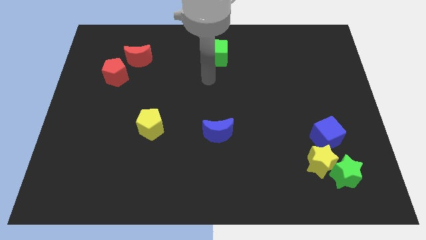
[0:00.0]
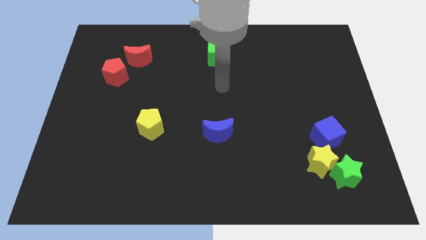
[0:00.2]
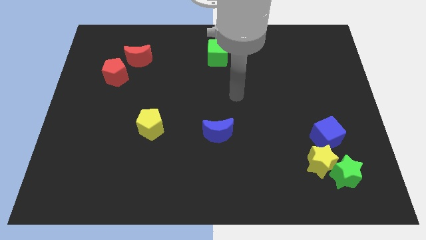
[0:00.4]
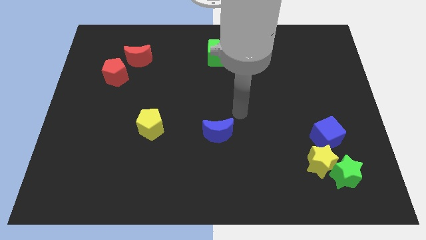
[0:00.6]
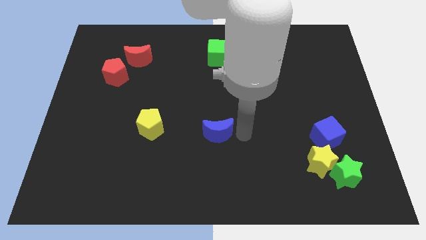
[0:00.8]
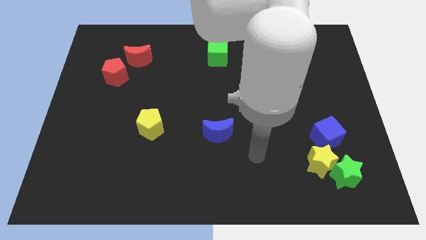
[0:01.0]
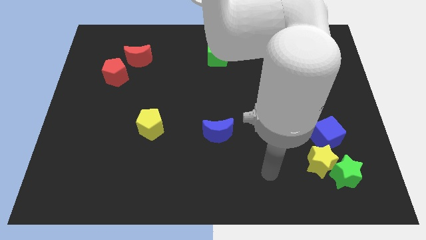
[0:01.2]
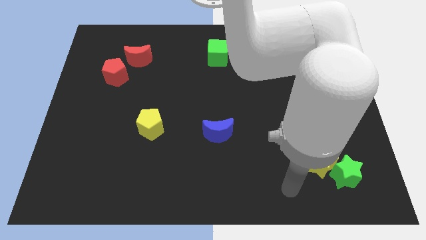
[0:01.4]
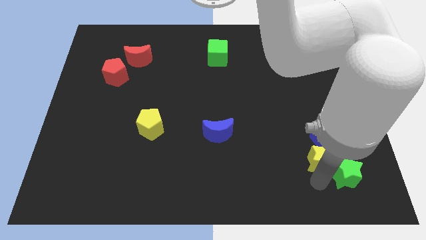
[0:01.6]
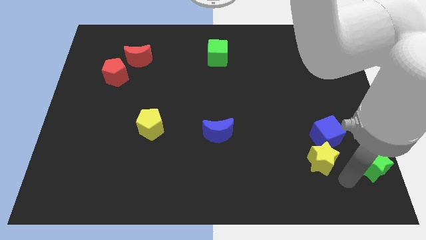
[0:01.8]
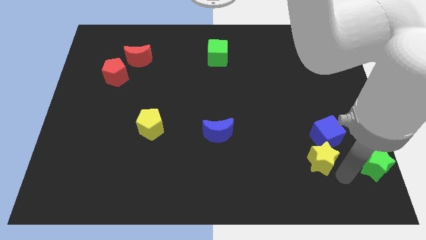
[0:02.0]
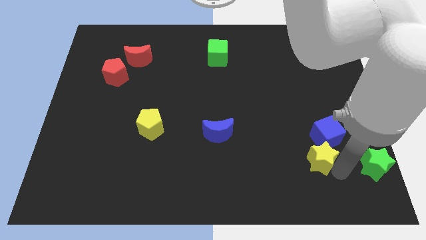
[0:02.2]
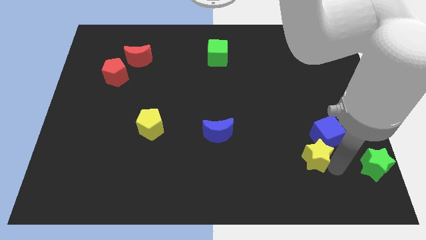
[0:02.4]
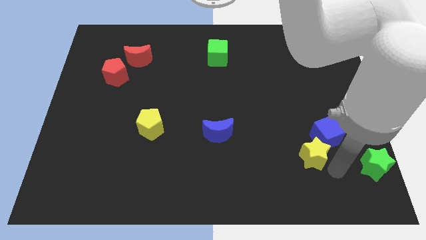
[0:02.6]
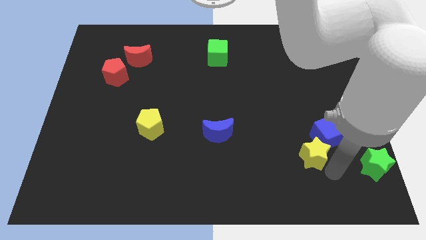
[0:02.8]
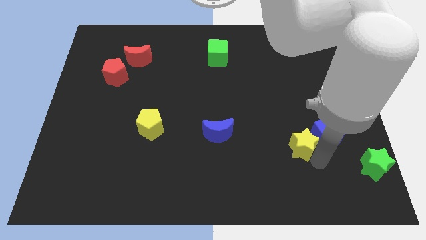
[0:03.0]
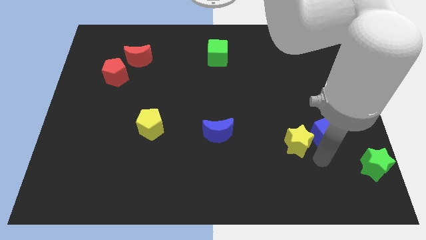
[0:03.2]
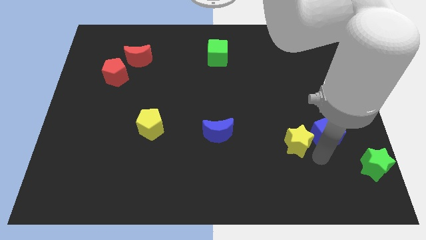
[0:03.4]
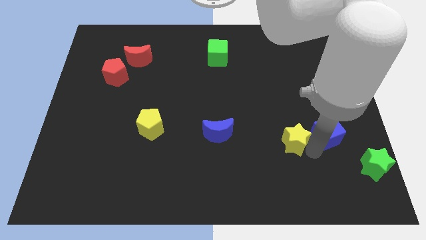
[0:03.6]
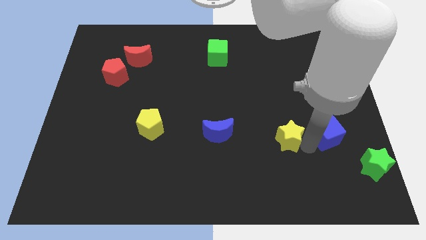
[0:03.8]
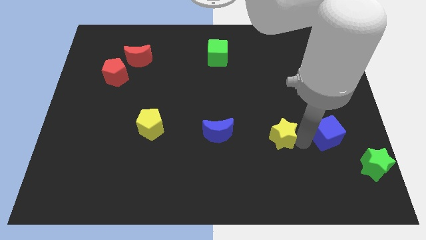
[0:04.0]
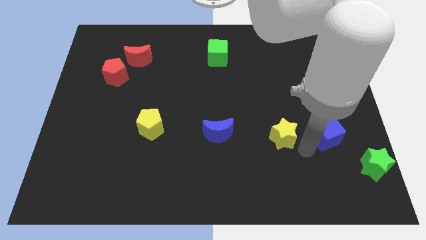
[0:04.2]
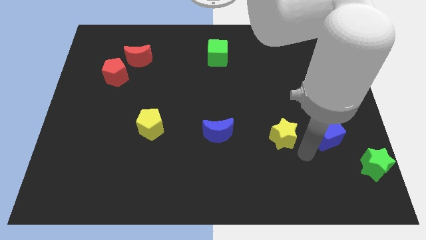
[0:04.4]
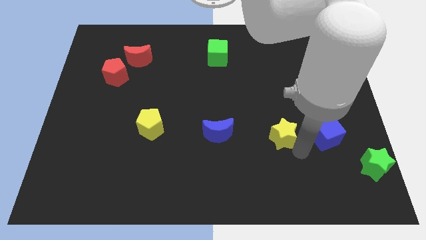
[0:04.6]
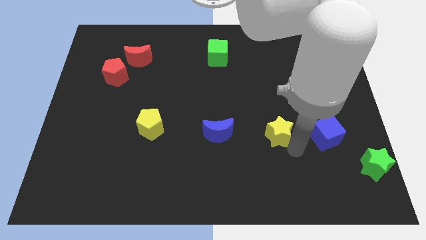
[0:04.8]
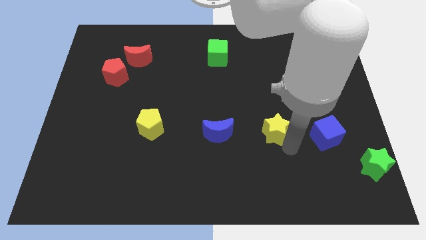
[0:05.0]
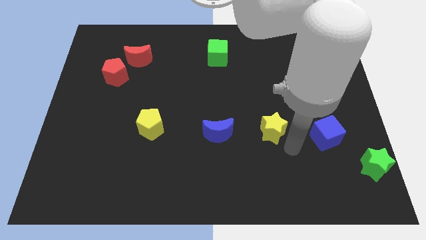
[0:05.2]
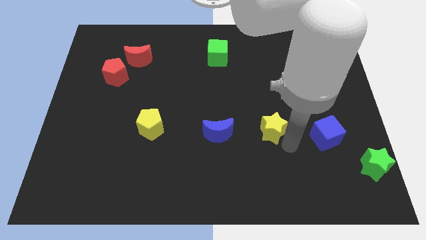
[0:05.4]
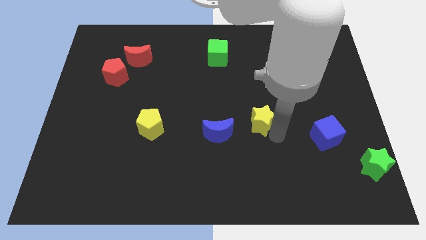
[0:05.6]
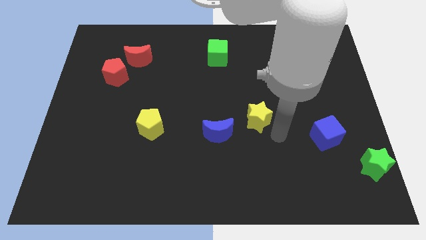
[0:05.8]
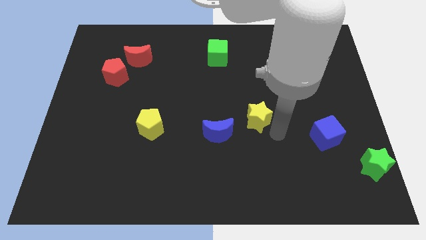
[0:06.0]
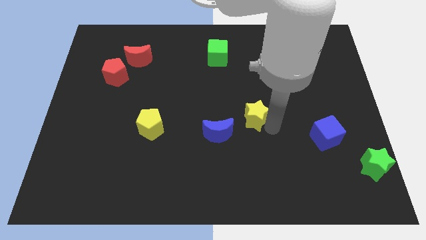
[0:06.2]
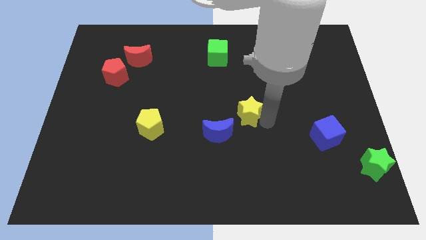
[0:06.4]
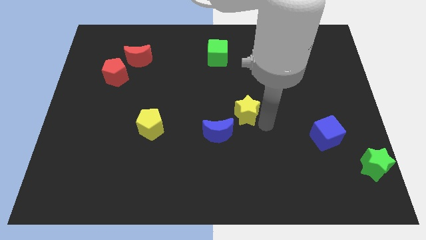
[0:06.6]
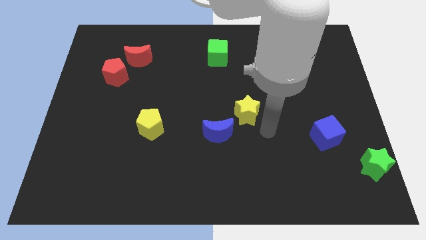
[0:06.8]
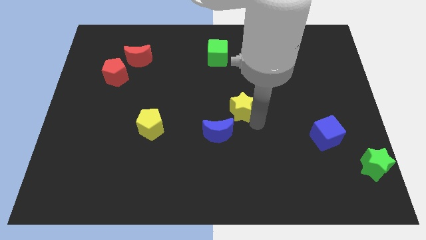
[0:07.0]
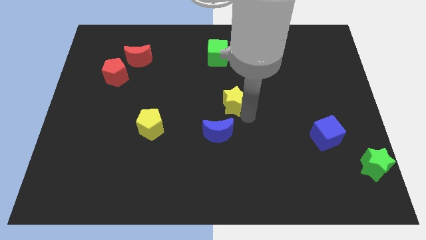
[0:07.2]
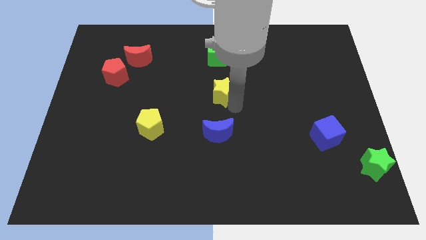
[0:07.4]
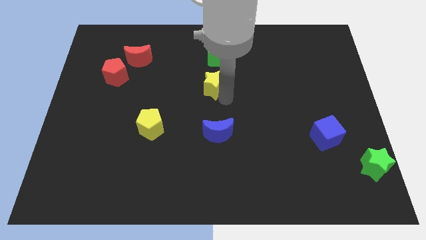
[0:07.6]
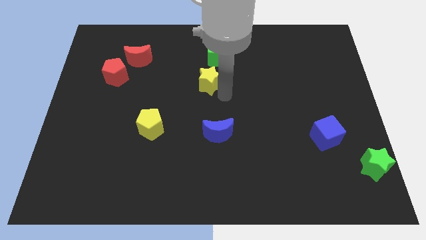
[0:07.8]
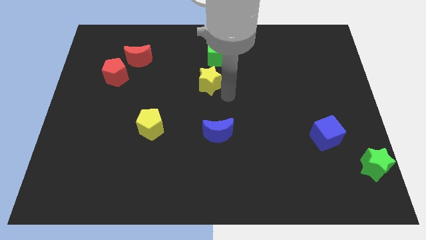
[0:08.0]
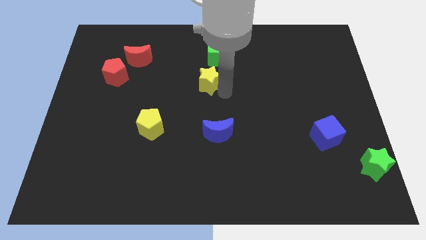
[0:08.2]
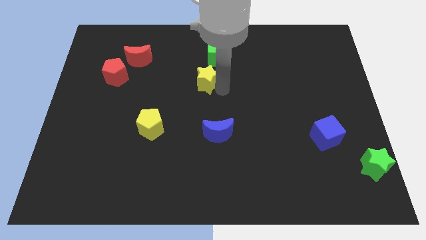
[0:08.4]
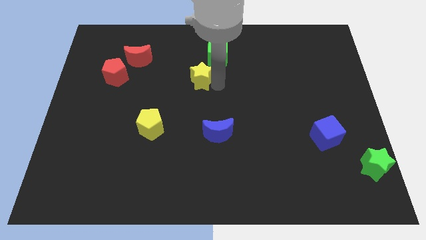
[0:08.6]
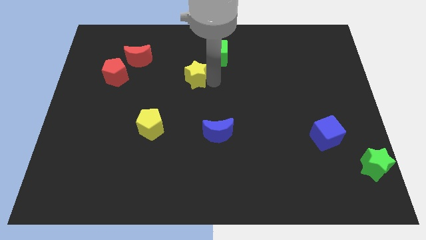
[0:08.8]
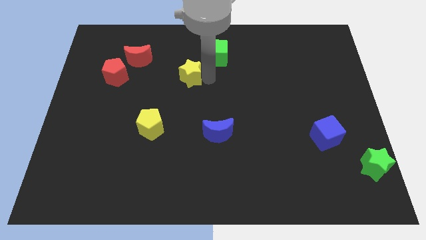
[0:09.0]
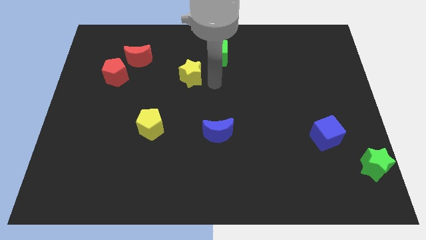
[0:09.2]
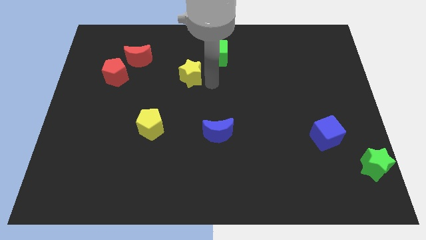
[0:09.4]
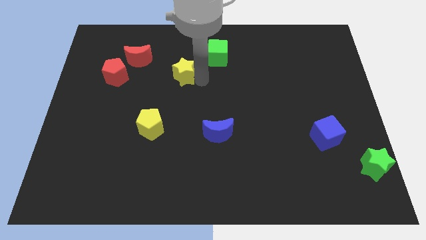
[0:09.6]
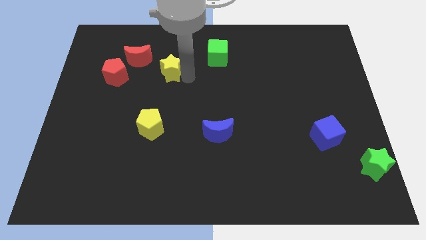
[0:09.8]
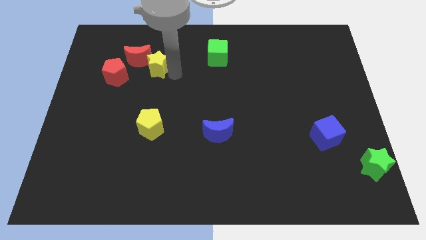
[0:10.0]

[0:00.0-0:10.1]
move the yellow star close to the red moon

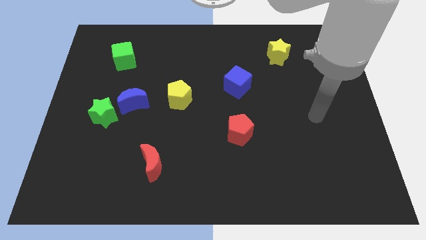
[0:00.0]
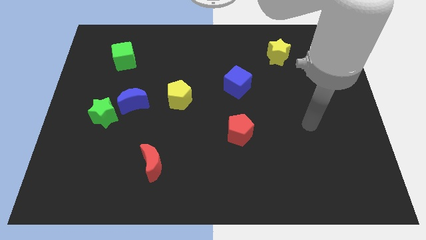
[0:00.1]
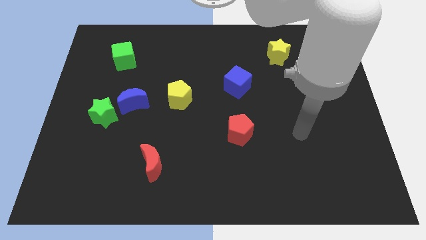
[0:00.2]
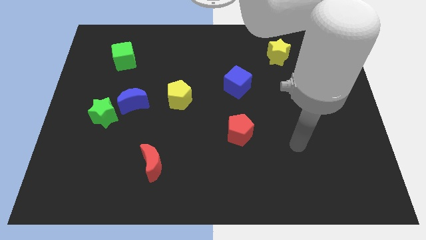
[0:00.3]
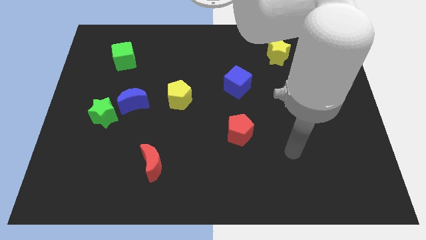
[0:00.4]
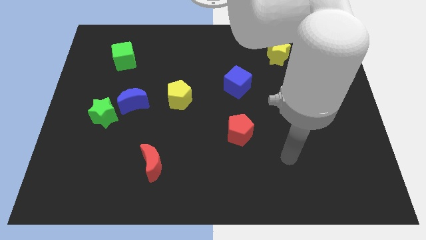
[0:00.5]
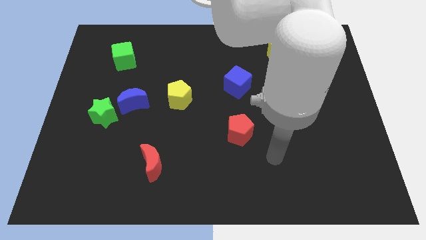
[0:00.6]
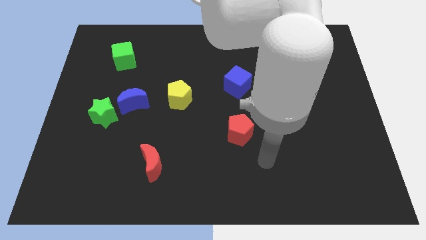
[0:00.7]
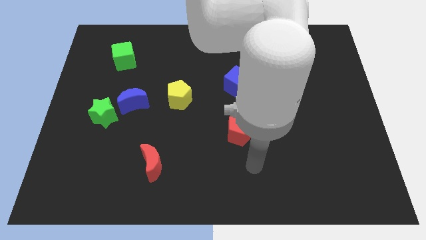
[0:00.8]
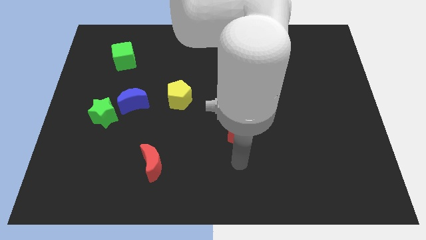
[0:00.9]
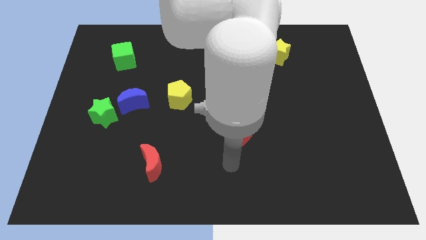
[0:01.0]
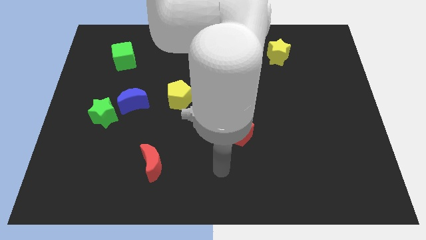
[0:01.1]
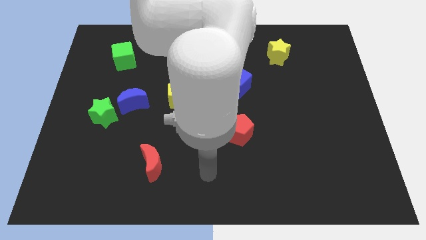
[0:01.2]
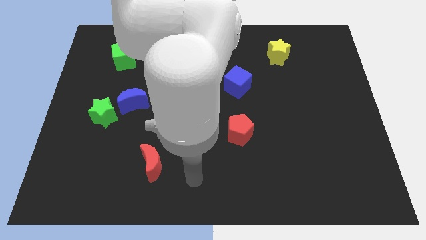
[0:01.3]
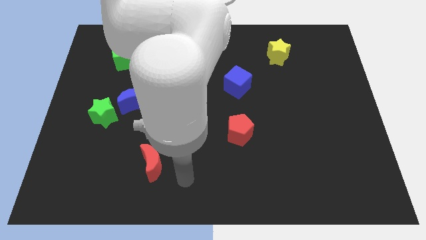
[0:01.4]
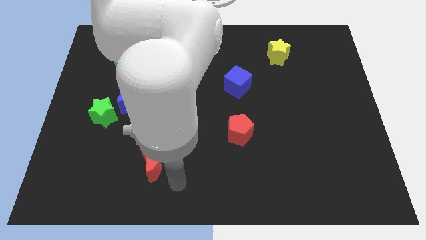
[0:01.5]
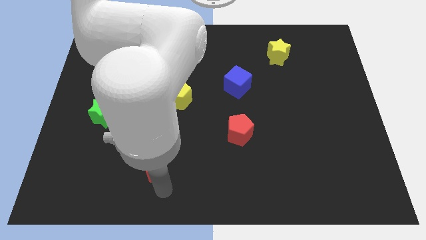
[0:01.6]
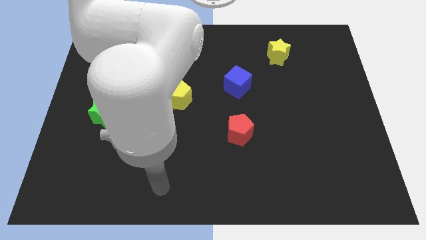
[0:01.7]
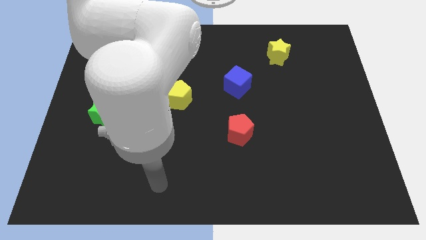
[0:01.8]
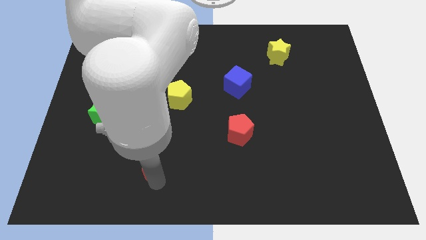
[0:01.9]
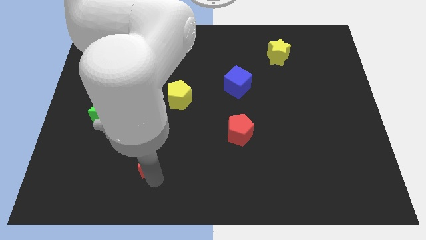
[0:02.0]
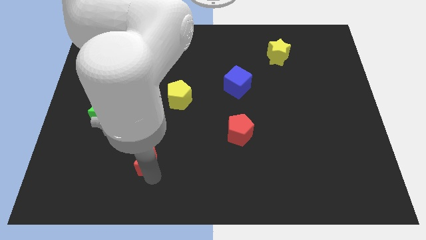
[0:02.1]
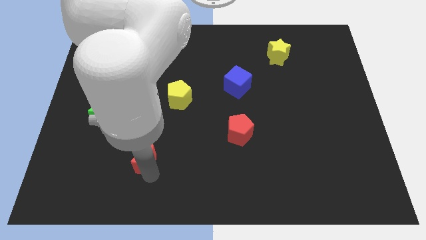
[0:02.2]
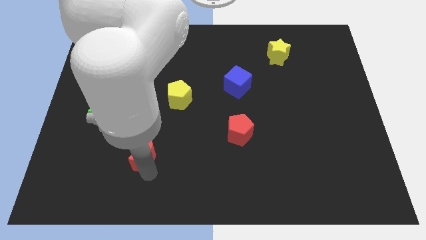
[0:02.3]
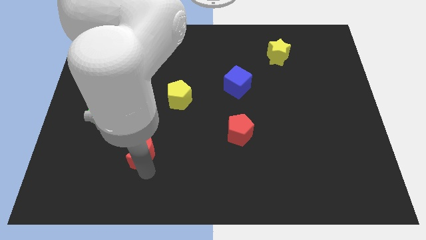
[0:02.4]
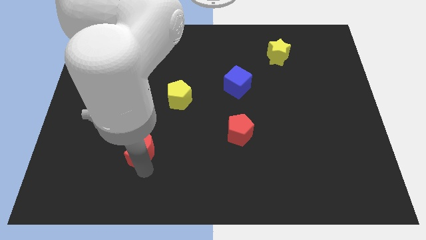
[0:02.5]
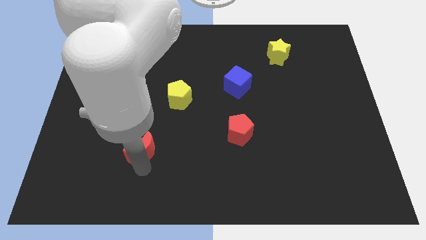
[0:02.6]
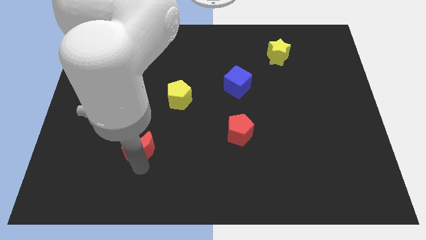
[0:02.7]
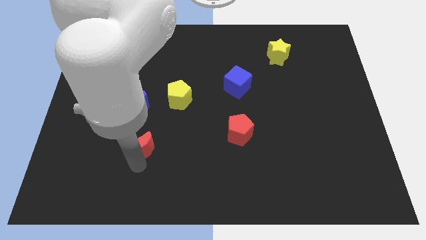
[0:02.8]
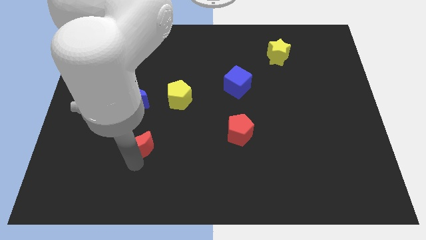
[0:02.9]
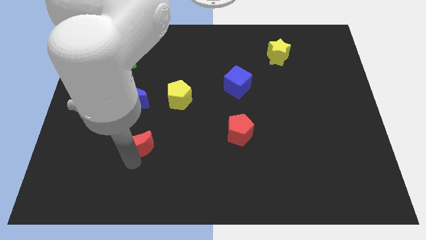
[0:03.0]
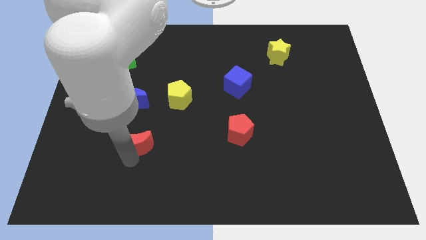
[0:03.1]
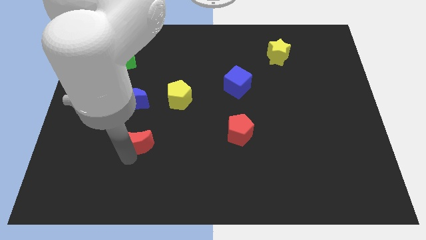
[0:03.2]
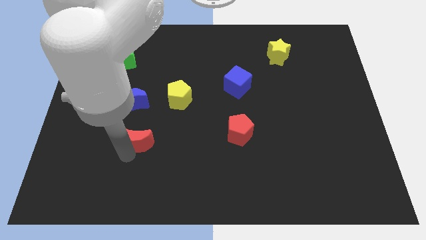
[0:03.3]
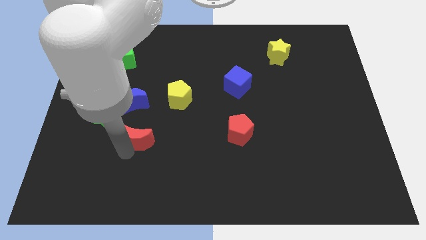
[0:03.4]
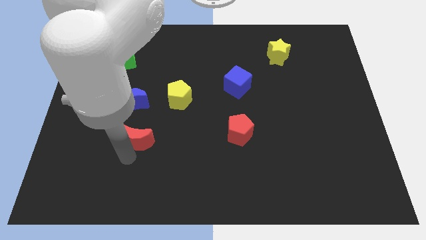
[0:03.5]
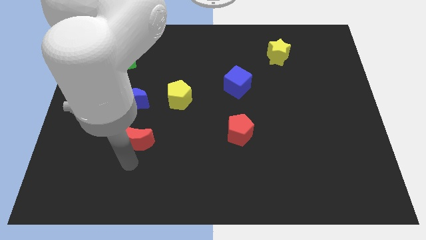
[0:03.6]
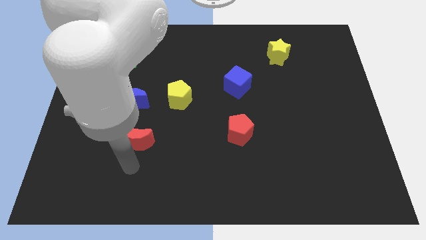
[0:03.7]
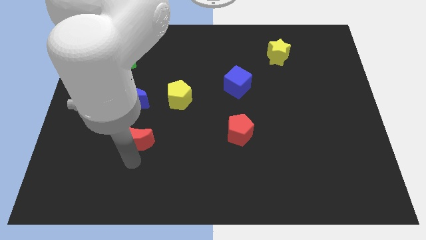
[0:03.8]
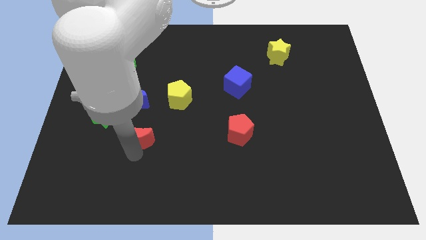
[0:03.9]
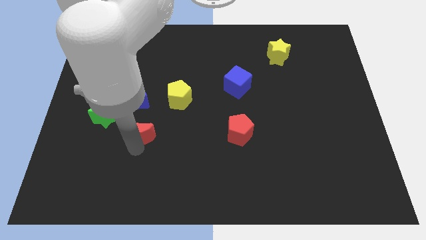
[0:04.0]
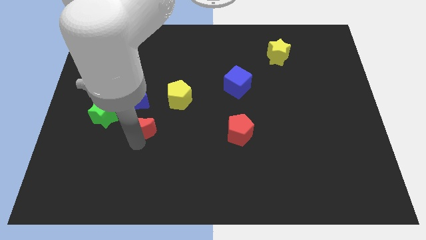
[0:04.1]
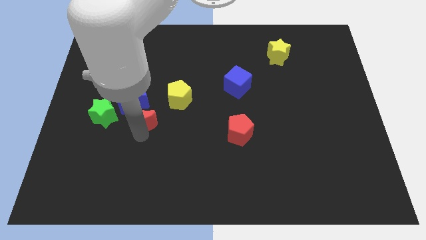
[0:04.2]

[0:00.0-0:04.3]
put the red moon next to the blue moon
